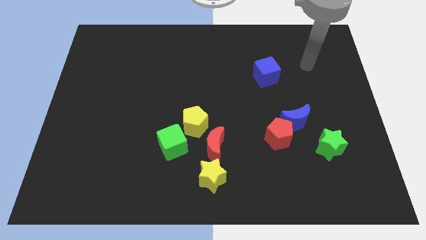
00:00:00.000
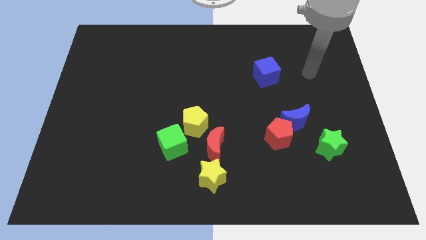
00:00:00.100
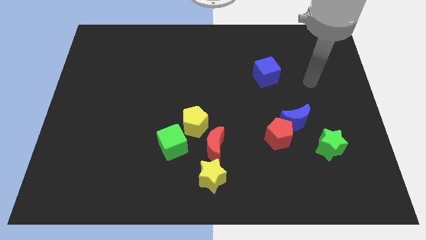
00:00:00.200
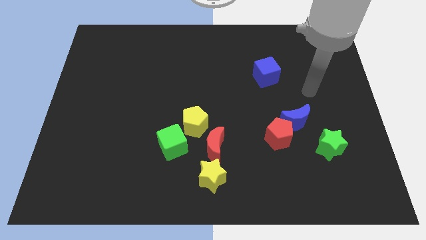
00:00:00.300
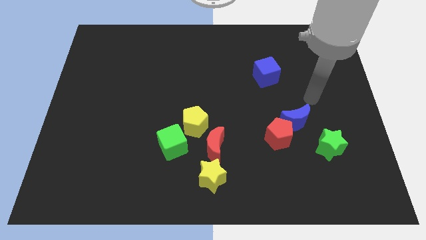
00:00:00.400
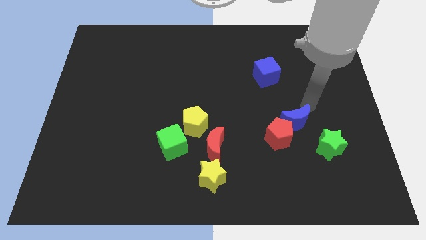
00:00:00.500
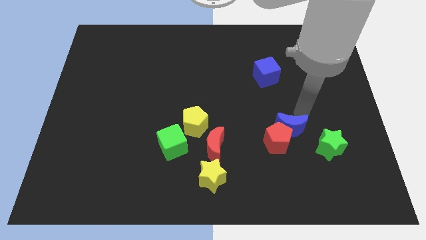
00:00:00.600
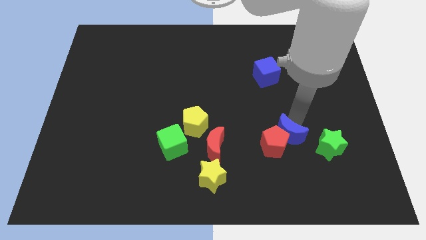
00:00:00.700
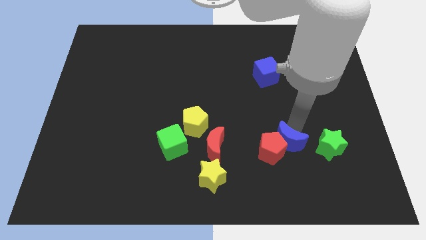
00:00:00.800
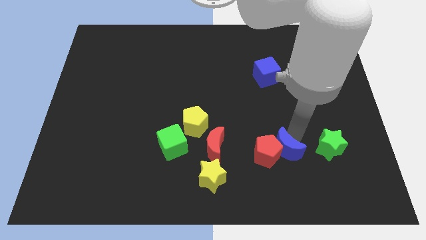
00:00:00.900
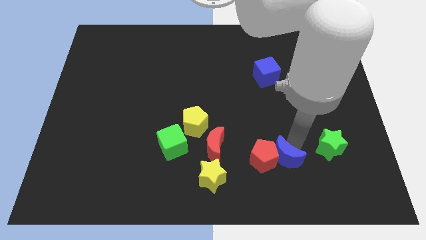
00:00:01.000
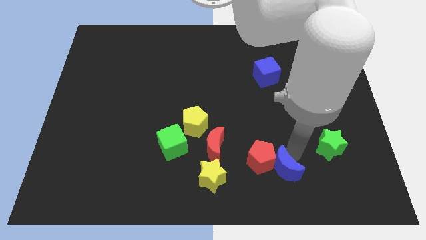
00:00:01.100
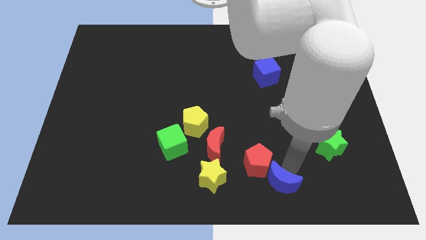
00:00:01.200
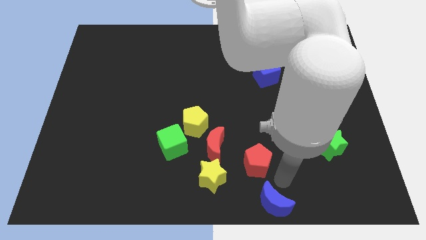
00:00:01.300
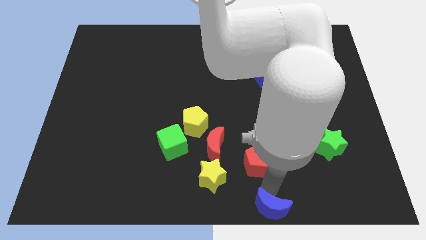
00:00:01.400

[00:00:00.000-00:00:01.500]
pull the red pentagon apart from the blue moon

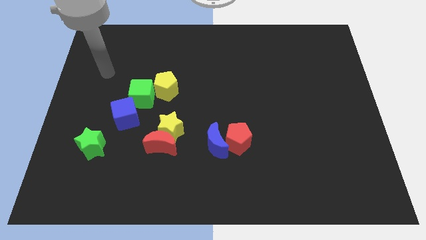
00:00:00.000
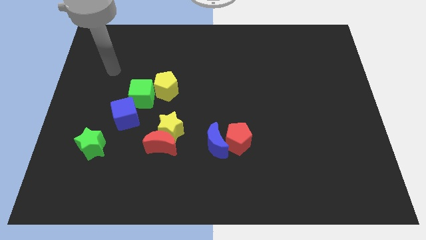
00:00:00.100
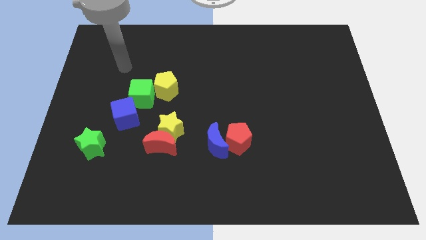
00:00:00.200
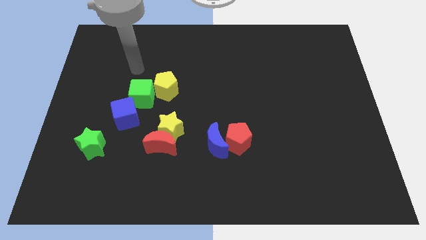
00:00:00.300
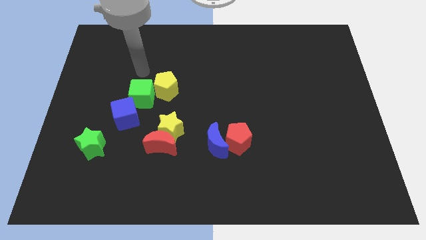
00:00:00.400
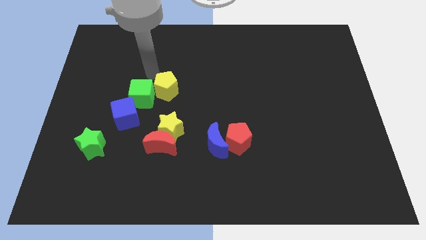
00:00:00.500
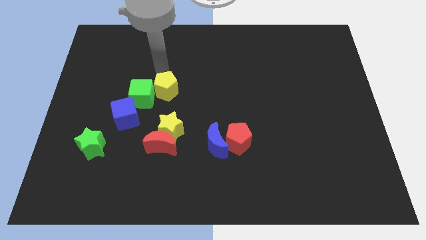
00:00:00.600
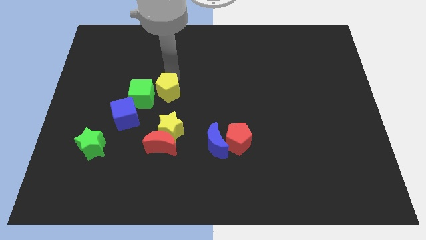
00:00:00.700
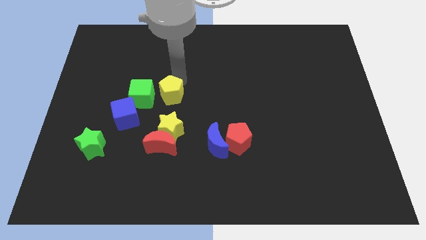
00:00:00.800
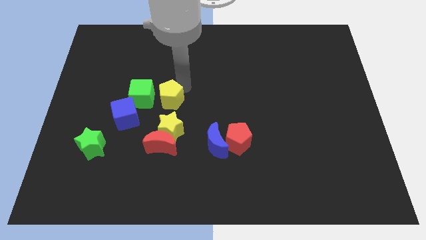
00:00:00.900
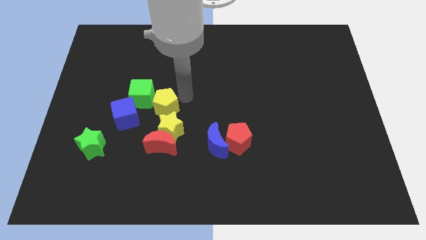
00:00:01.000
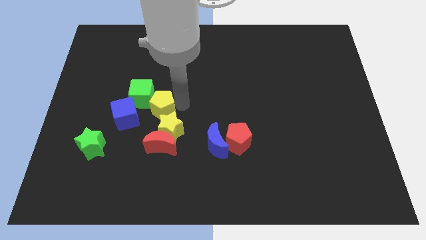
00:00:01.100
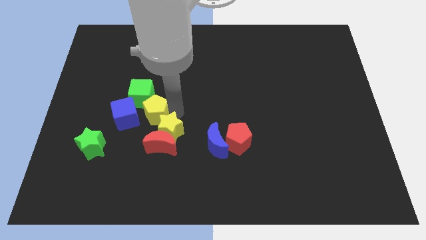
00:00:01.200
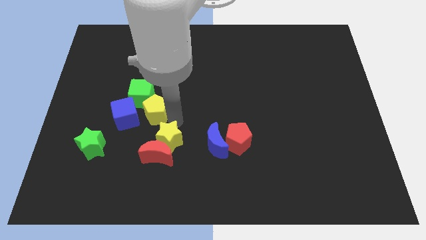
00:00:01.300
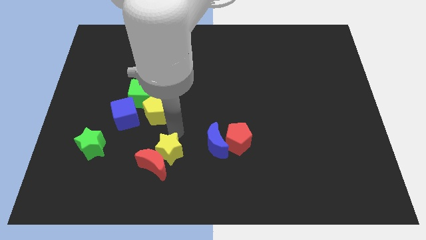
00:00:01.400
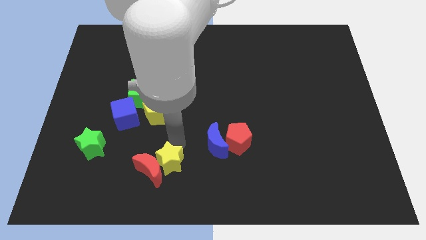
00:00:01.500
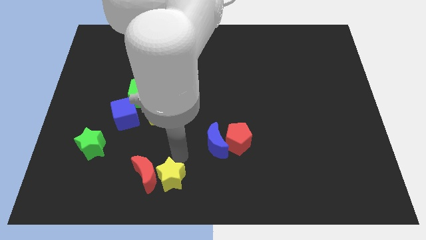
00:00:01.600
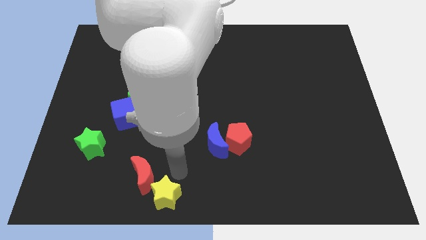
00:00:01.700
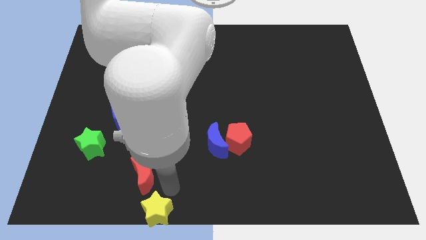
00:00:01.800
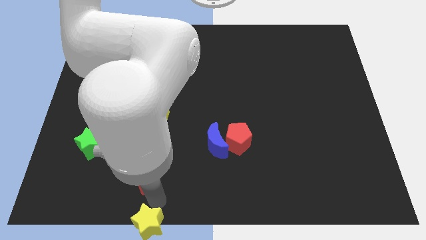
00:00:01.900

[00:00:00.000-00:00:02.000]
separate the red moon from the yellow star

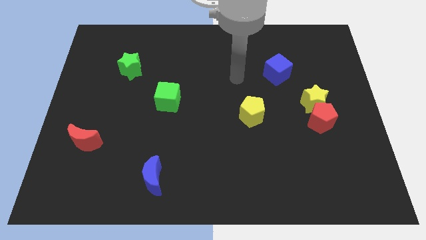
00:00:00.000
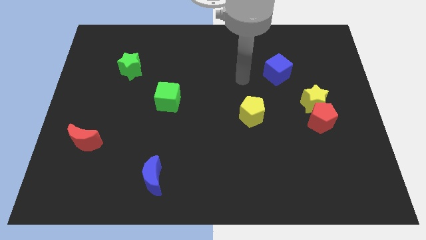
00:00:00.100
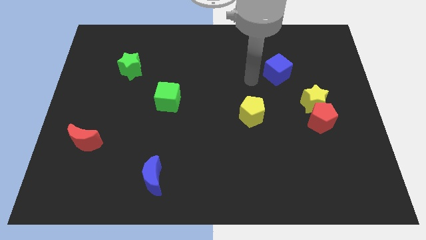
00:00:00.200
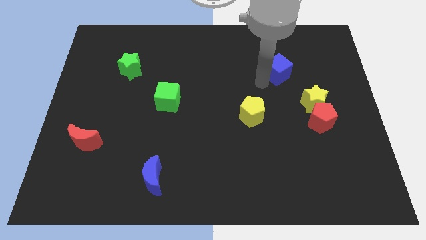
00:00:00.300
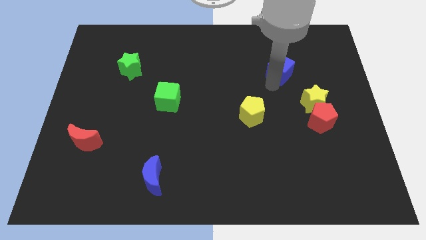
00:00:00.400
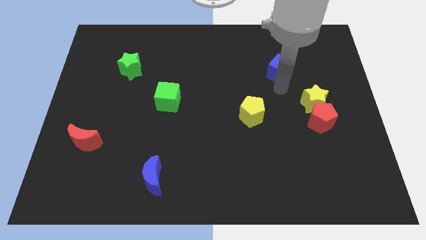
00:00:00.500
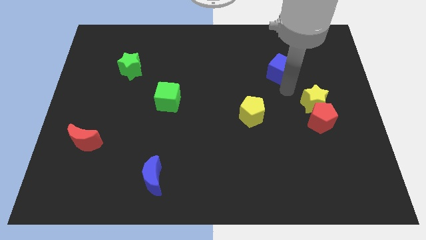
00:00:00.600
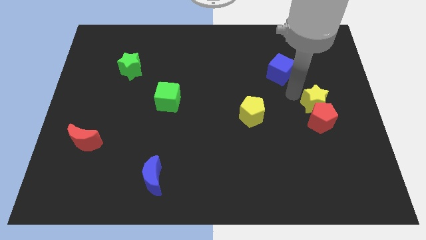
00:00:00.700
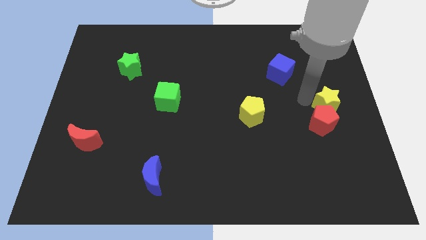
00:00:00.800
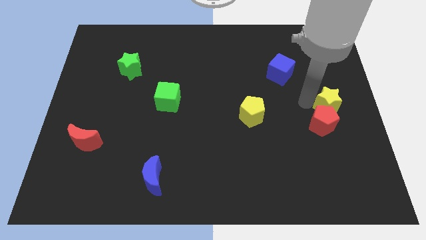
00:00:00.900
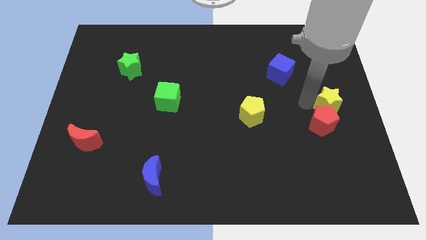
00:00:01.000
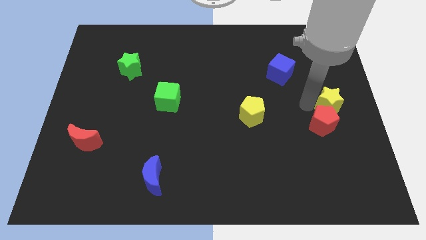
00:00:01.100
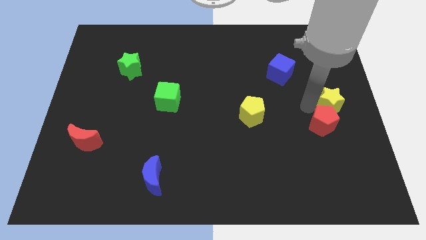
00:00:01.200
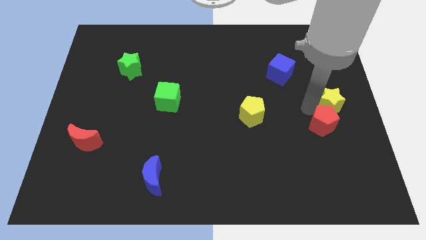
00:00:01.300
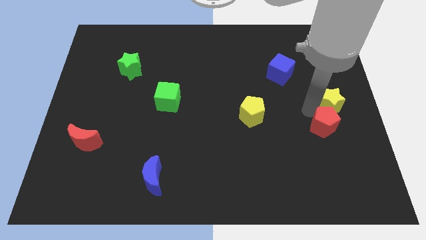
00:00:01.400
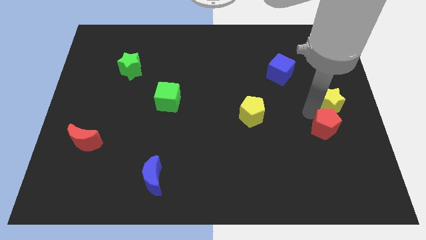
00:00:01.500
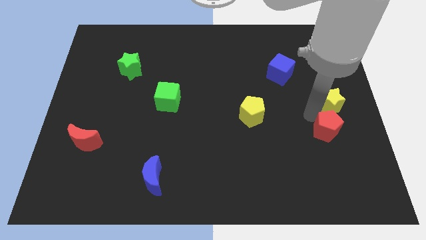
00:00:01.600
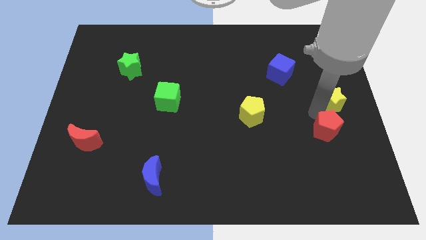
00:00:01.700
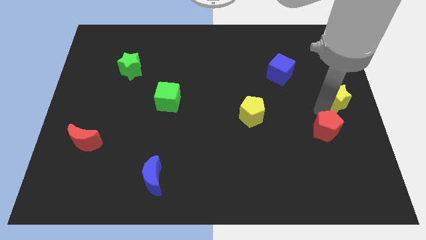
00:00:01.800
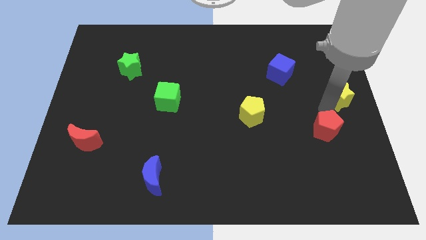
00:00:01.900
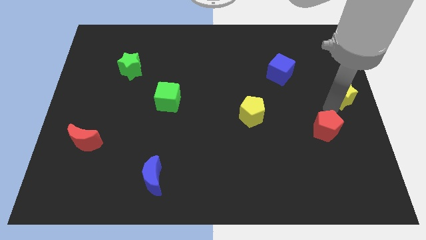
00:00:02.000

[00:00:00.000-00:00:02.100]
separate the red pentagon from the yellow star

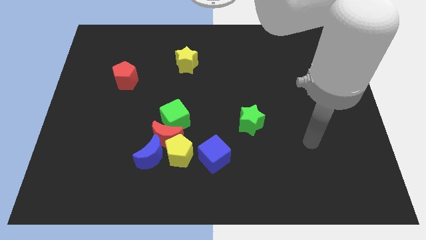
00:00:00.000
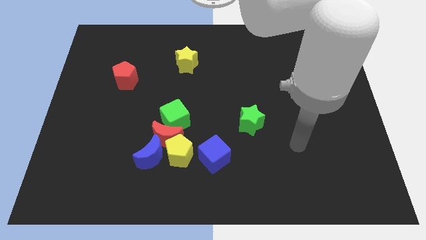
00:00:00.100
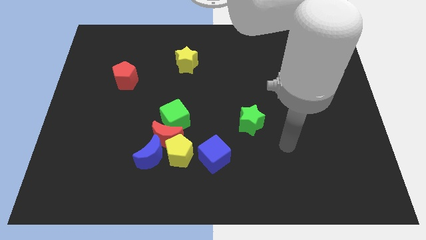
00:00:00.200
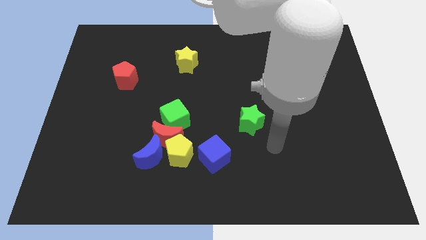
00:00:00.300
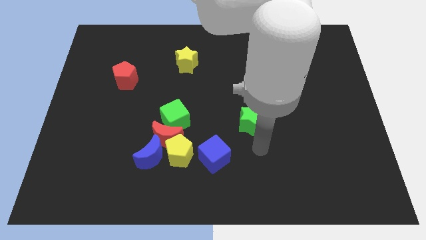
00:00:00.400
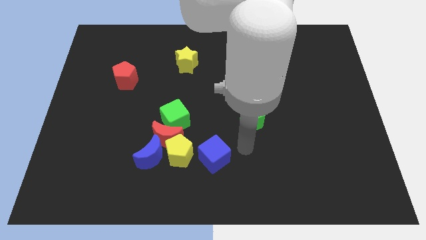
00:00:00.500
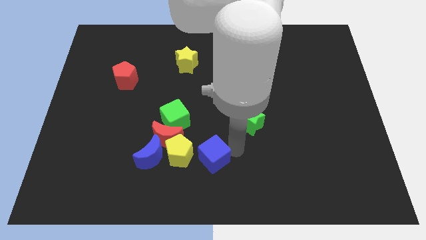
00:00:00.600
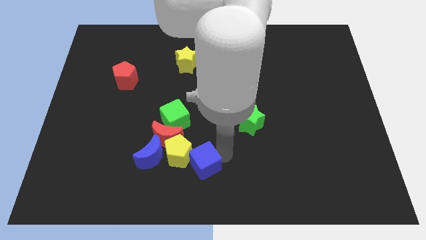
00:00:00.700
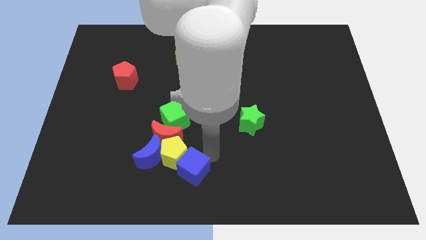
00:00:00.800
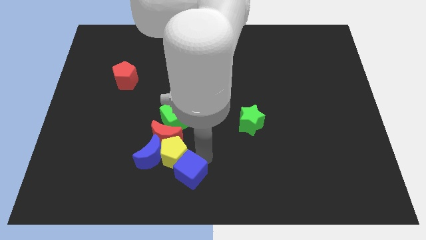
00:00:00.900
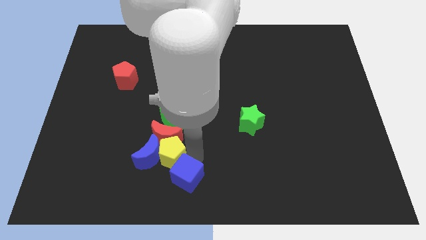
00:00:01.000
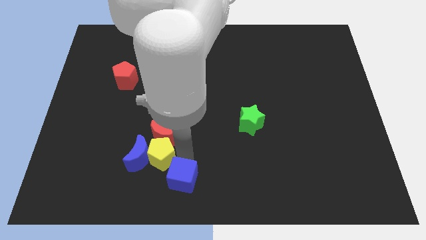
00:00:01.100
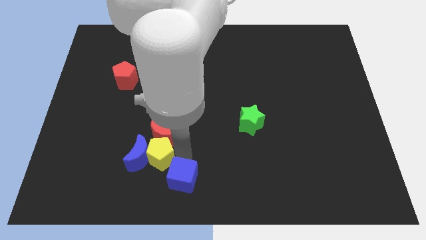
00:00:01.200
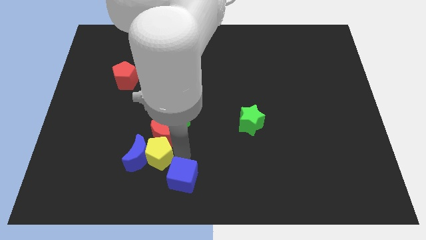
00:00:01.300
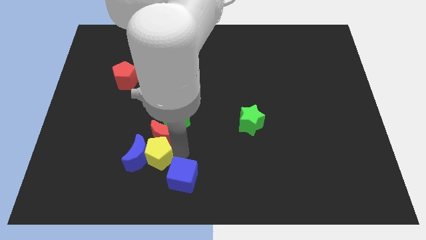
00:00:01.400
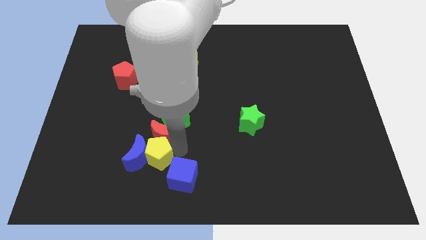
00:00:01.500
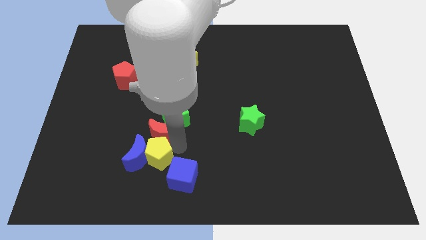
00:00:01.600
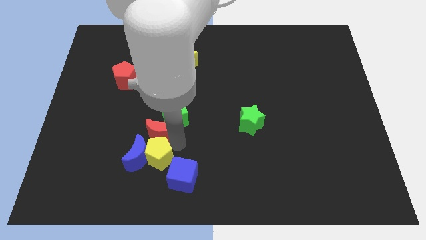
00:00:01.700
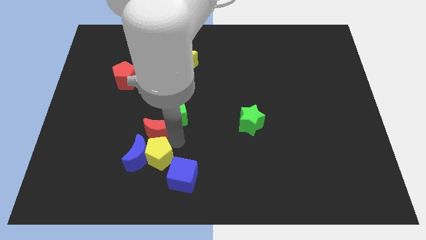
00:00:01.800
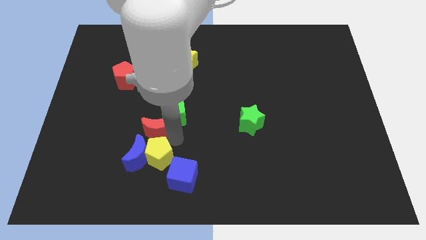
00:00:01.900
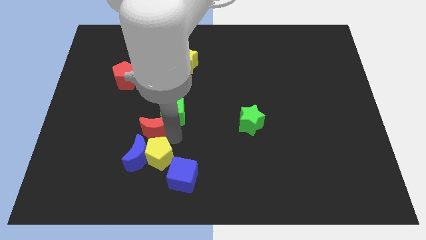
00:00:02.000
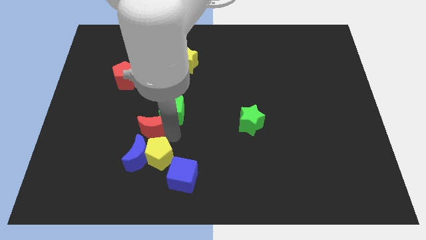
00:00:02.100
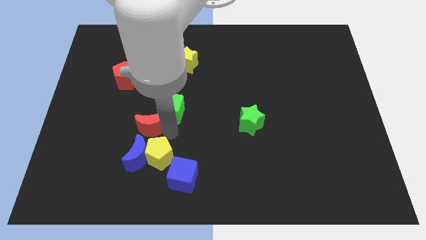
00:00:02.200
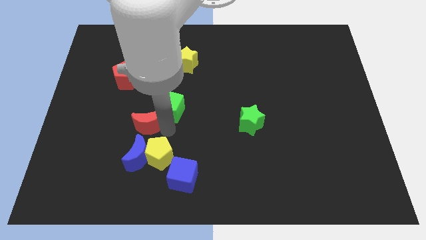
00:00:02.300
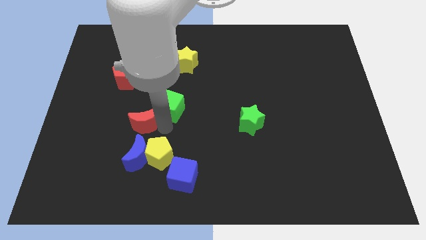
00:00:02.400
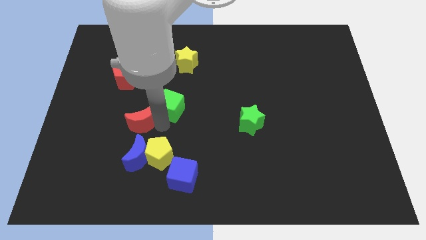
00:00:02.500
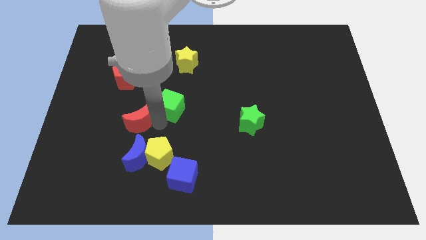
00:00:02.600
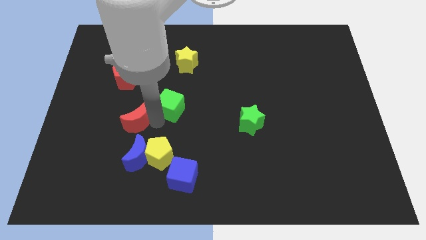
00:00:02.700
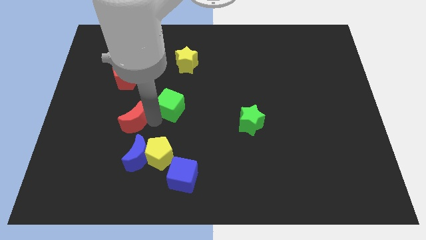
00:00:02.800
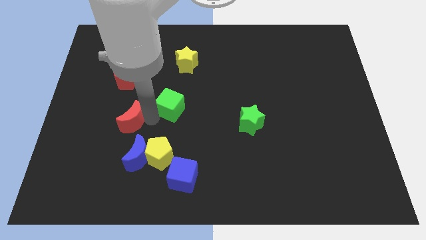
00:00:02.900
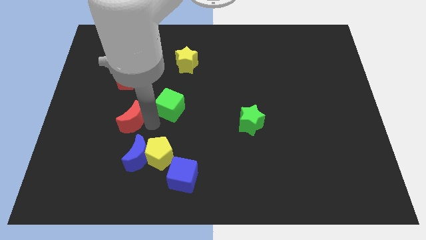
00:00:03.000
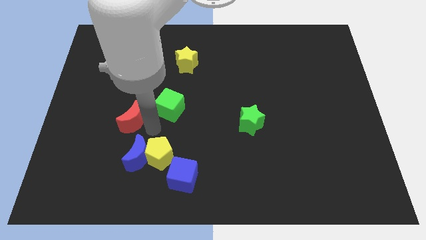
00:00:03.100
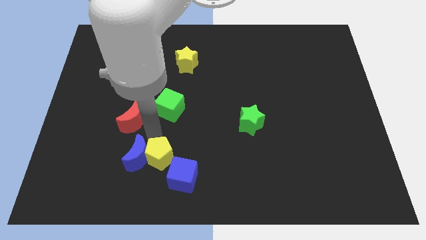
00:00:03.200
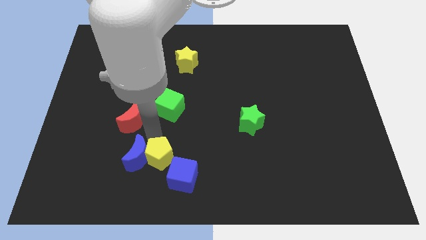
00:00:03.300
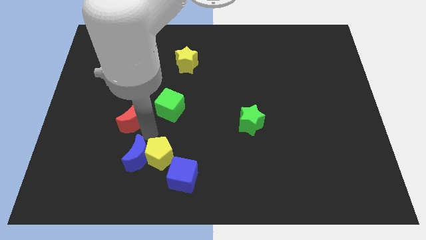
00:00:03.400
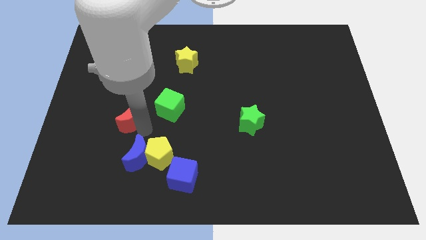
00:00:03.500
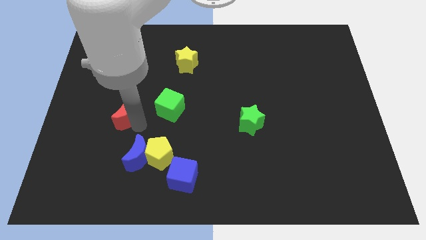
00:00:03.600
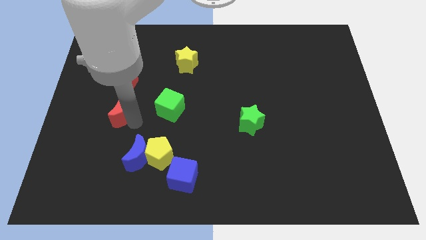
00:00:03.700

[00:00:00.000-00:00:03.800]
pull the red moon apart from the yellow pentagon, green cube, and blue moon
